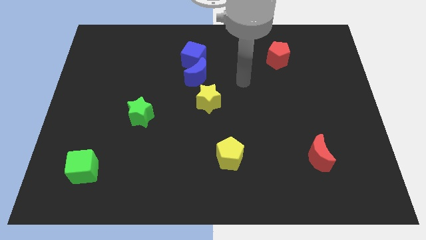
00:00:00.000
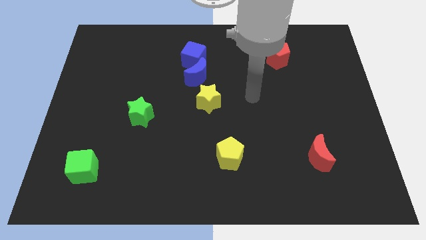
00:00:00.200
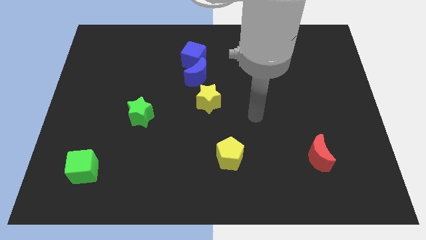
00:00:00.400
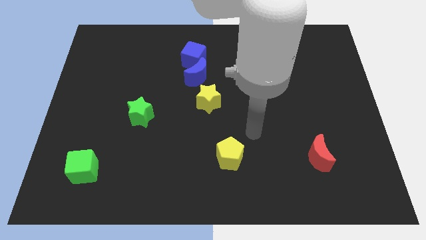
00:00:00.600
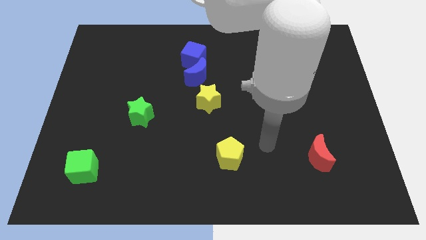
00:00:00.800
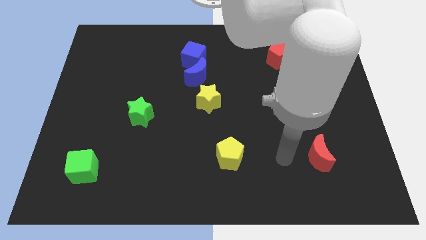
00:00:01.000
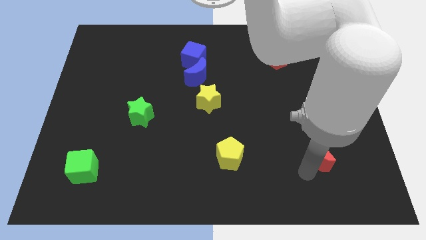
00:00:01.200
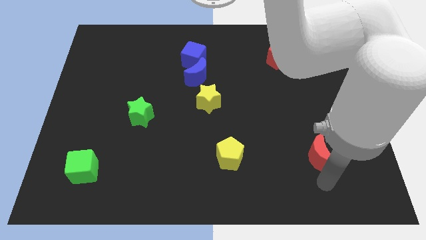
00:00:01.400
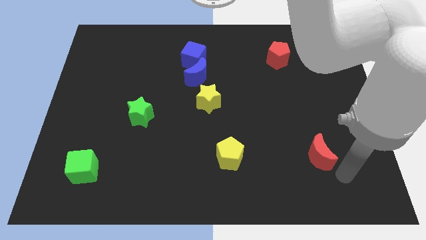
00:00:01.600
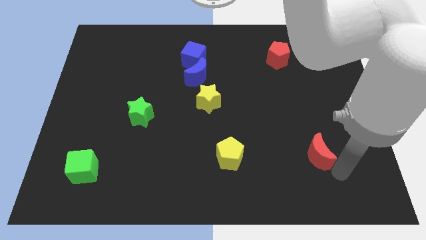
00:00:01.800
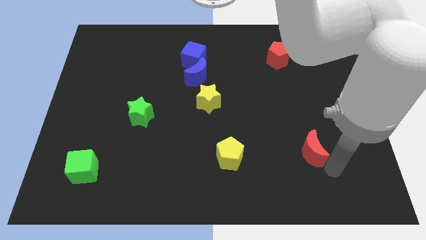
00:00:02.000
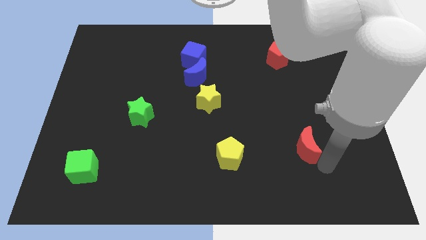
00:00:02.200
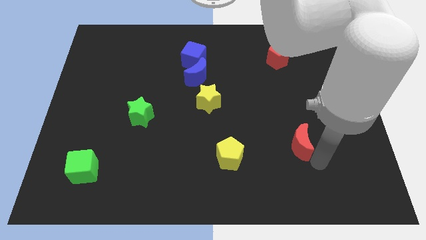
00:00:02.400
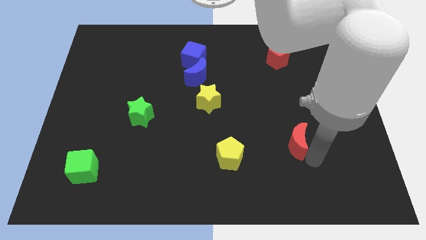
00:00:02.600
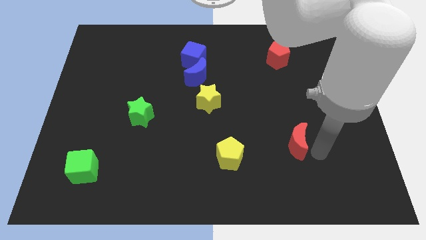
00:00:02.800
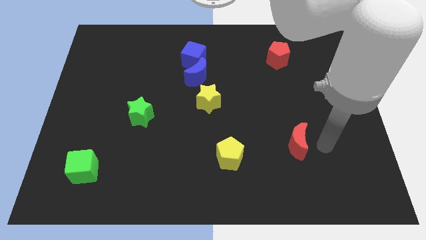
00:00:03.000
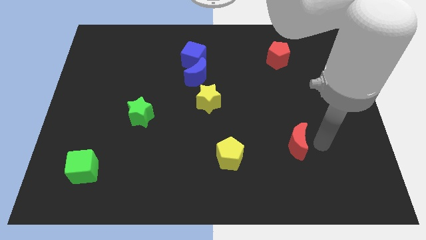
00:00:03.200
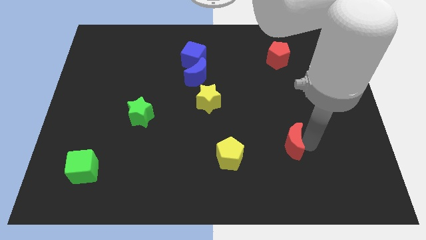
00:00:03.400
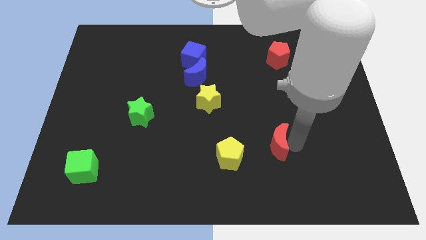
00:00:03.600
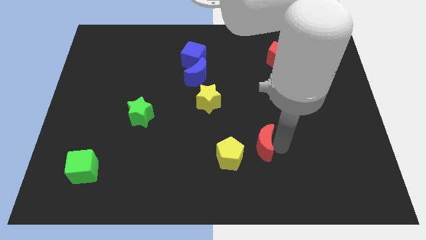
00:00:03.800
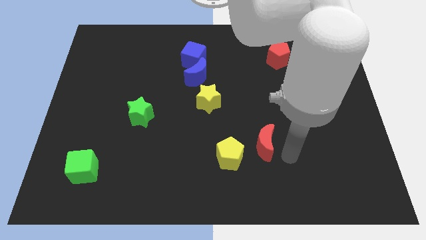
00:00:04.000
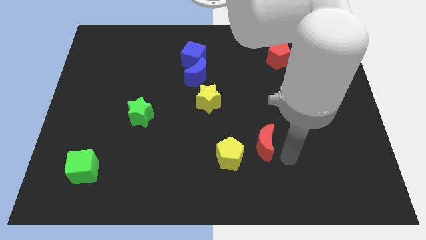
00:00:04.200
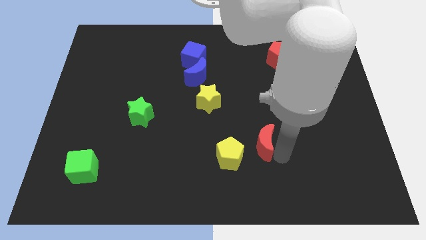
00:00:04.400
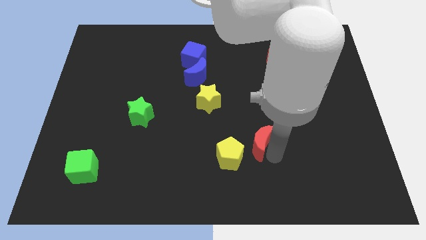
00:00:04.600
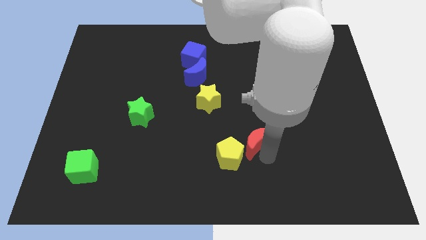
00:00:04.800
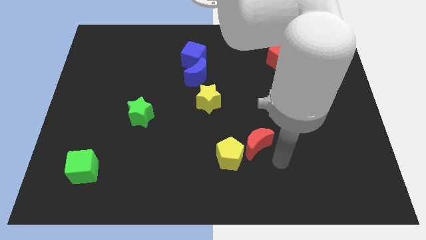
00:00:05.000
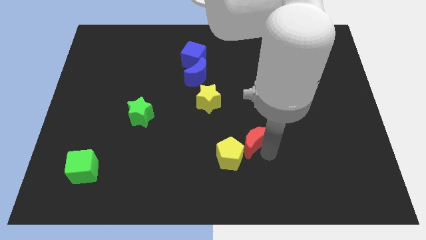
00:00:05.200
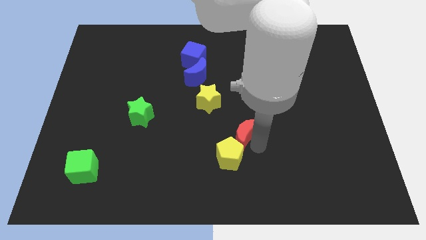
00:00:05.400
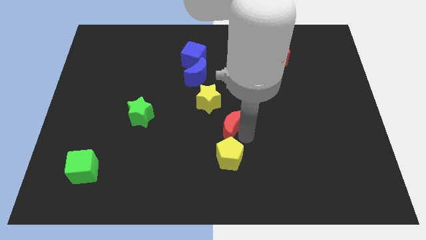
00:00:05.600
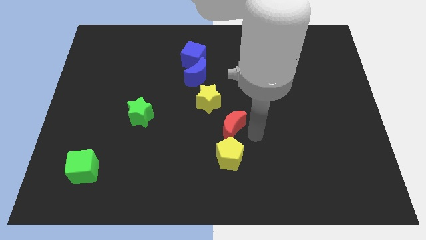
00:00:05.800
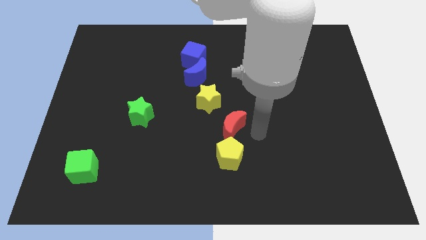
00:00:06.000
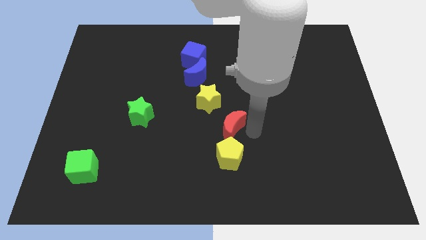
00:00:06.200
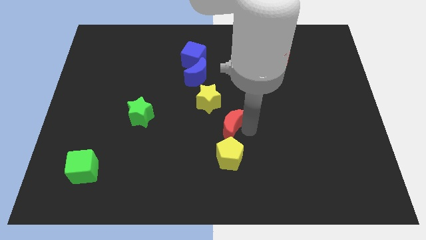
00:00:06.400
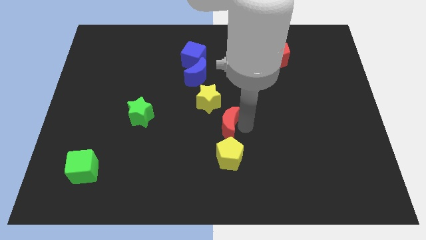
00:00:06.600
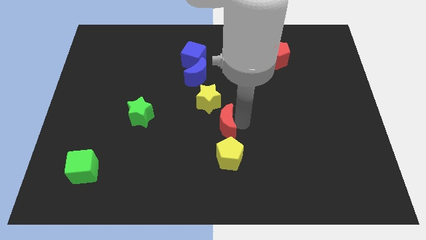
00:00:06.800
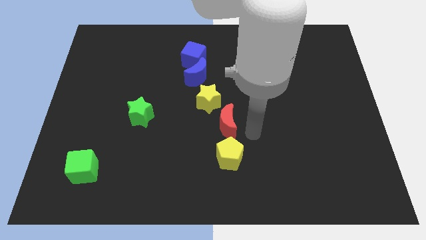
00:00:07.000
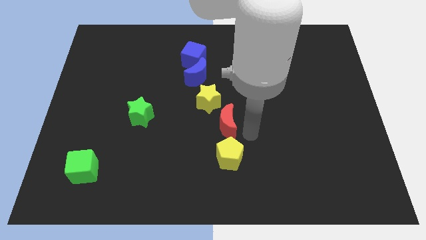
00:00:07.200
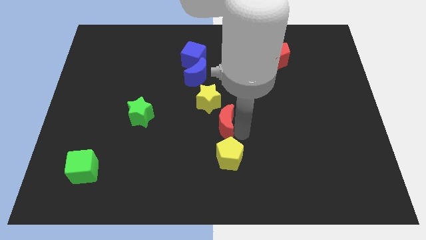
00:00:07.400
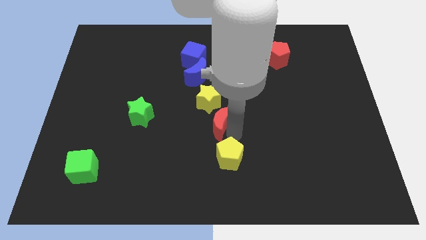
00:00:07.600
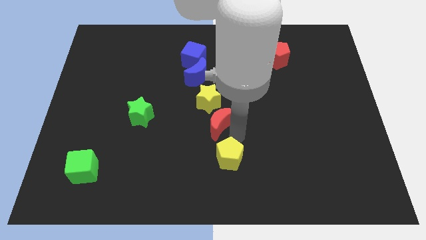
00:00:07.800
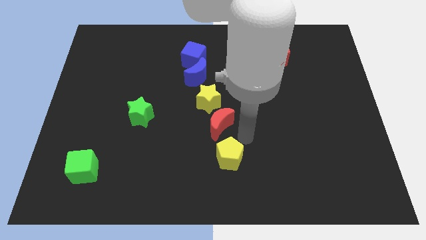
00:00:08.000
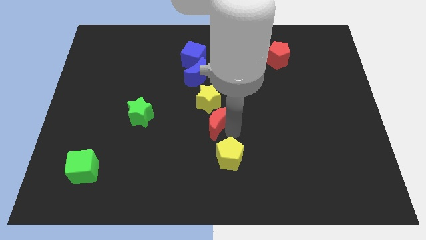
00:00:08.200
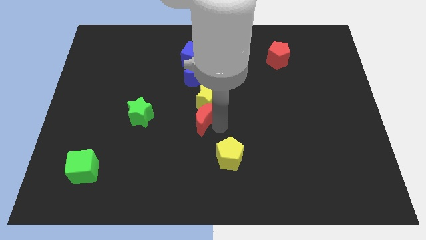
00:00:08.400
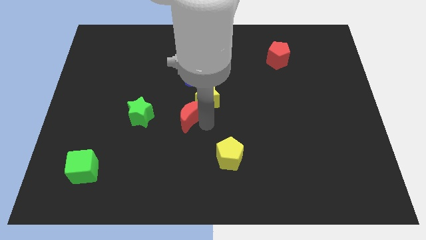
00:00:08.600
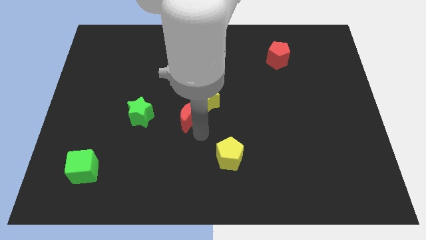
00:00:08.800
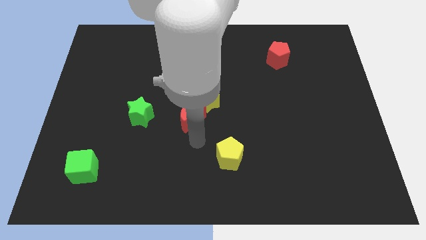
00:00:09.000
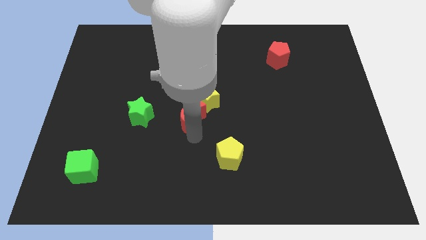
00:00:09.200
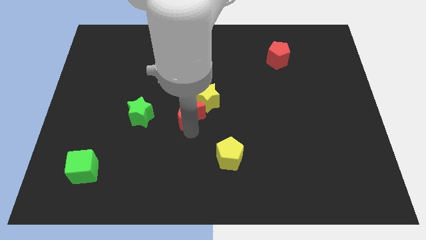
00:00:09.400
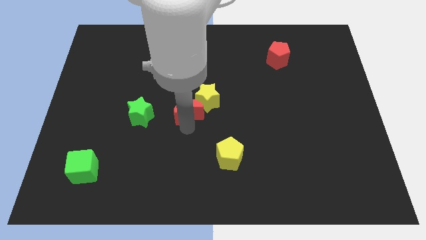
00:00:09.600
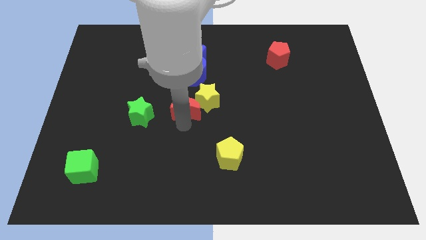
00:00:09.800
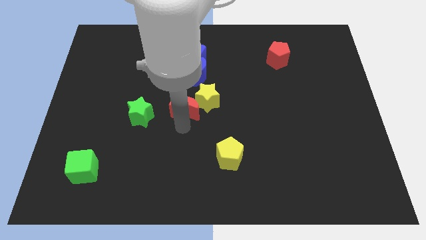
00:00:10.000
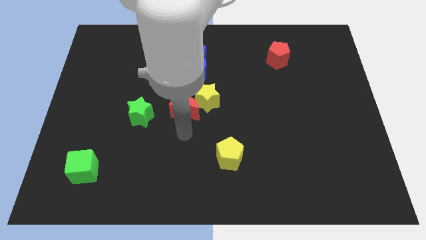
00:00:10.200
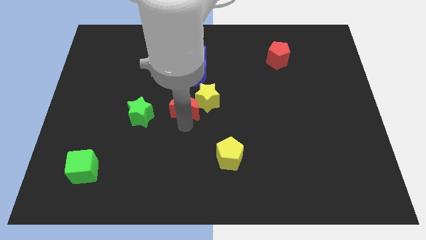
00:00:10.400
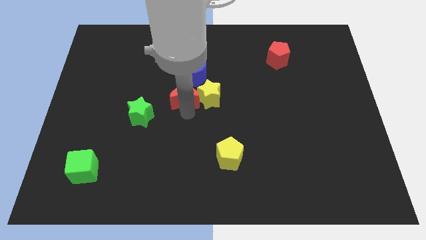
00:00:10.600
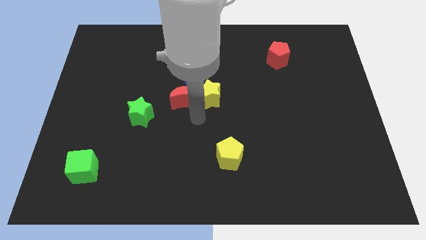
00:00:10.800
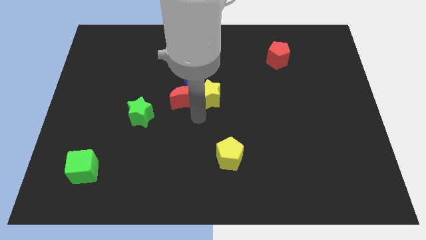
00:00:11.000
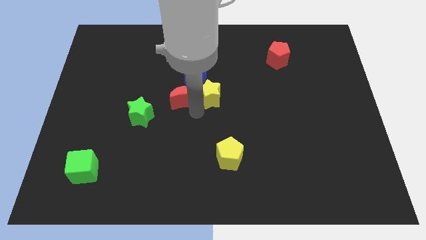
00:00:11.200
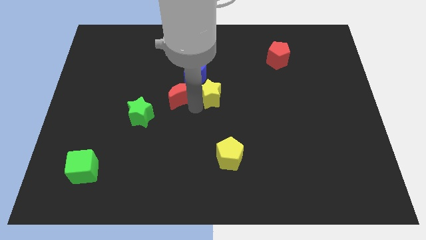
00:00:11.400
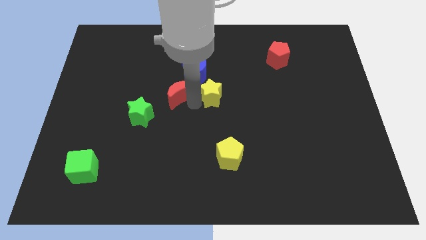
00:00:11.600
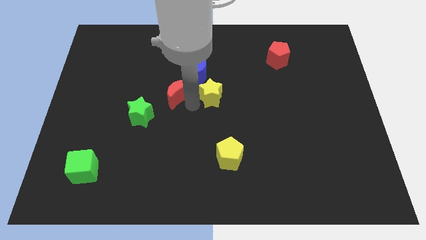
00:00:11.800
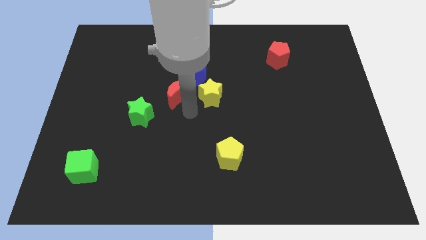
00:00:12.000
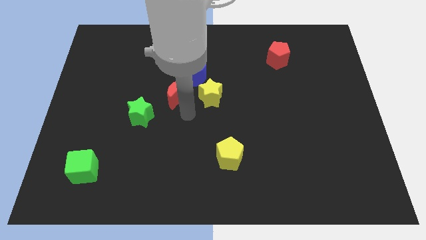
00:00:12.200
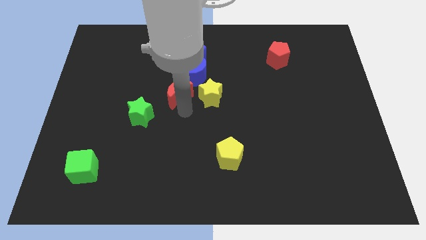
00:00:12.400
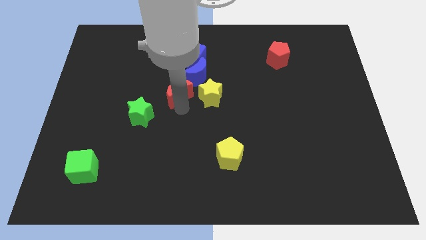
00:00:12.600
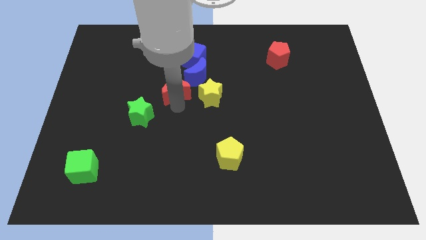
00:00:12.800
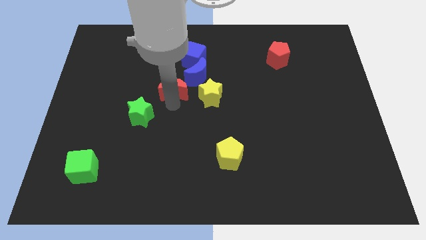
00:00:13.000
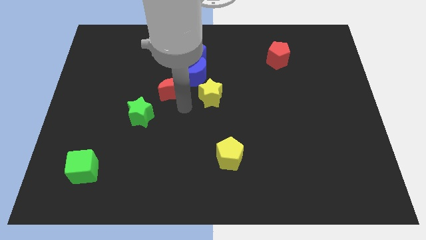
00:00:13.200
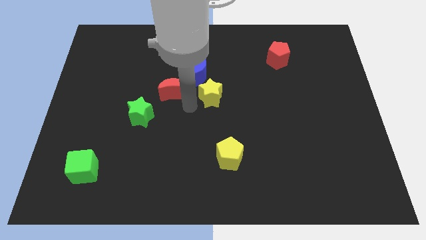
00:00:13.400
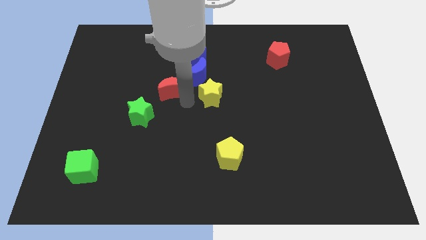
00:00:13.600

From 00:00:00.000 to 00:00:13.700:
push the red moon to the left side of the blue moon

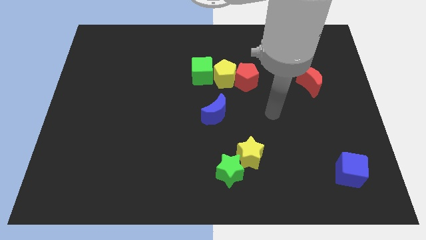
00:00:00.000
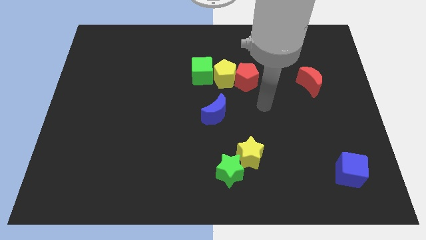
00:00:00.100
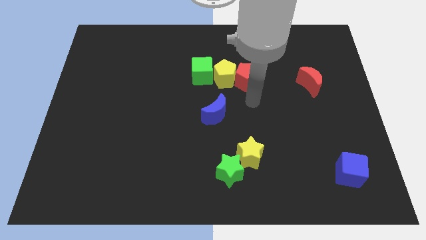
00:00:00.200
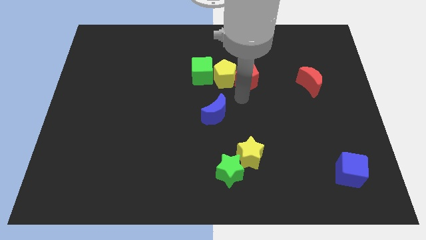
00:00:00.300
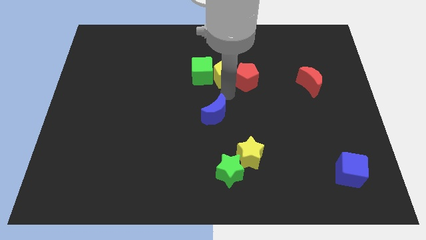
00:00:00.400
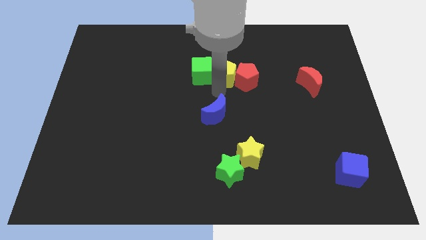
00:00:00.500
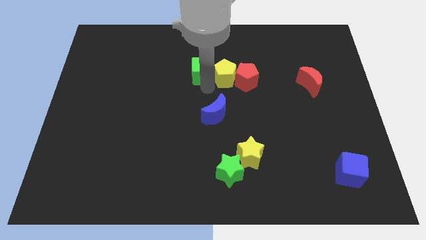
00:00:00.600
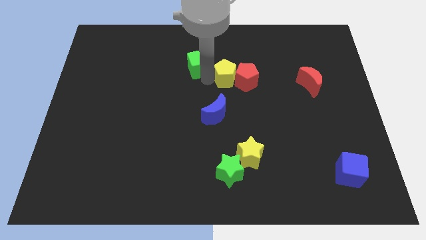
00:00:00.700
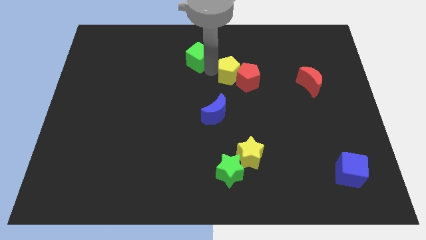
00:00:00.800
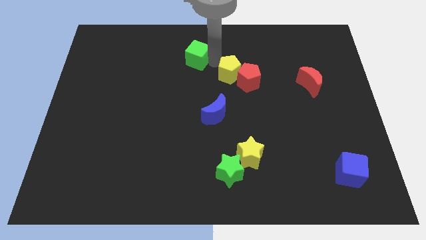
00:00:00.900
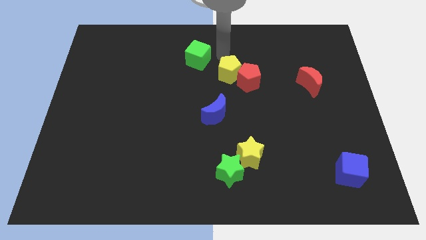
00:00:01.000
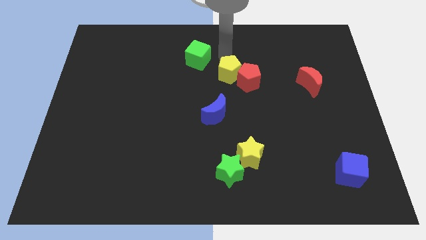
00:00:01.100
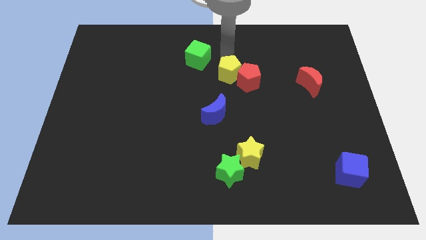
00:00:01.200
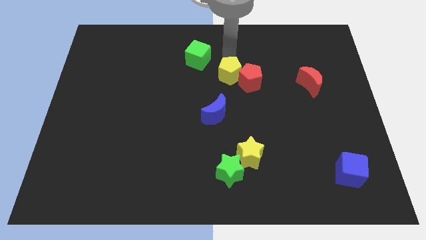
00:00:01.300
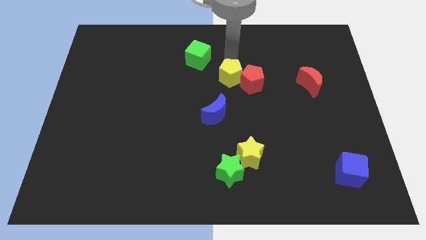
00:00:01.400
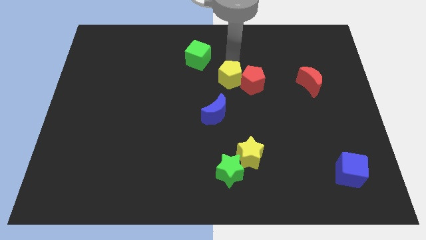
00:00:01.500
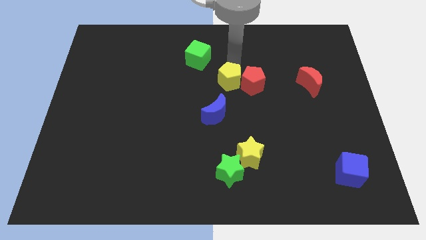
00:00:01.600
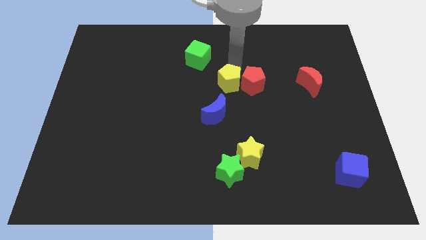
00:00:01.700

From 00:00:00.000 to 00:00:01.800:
put the yellow pentagon to the top right side of the blue moon
